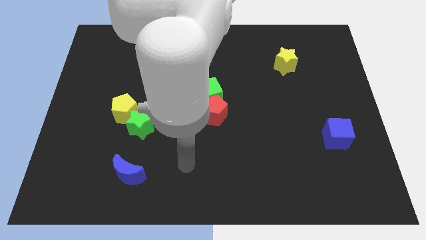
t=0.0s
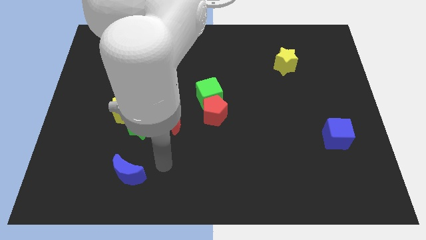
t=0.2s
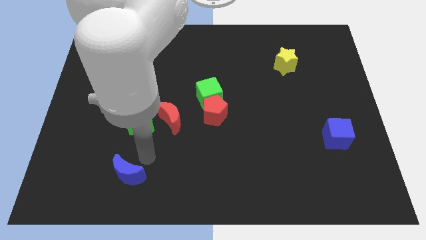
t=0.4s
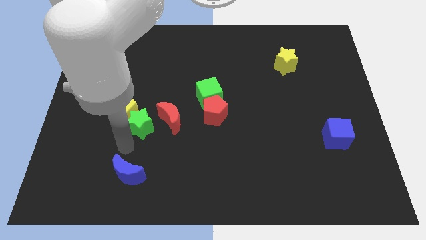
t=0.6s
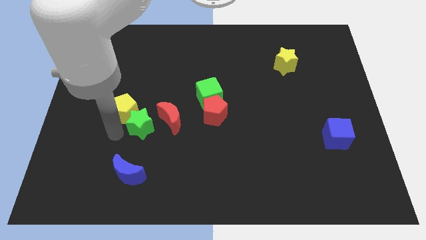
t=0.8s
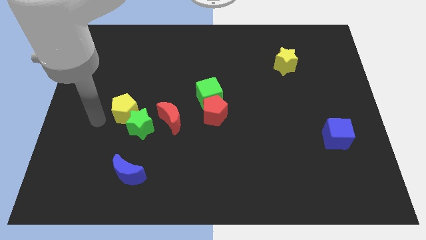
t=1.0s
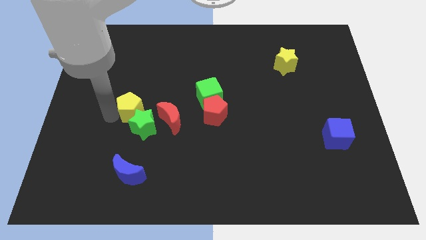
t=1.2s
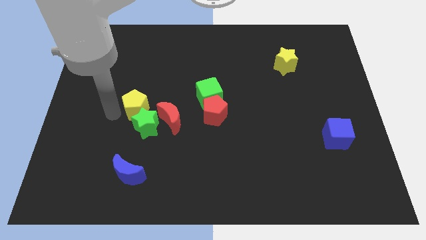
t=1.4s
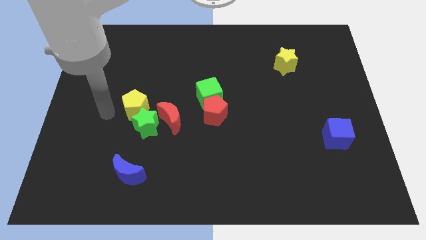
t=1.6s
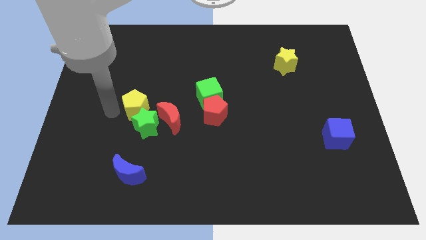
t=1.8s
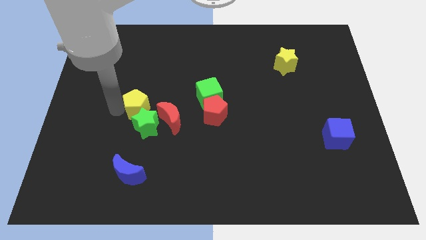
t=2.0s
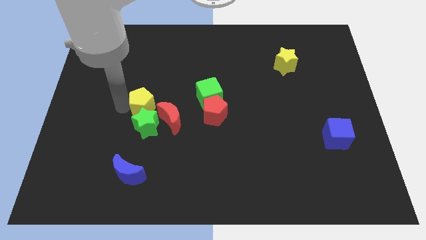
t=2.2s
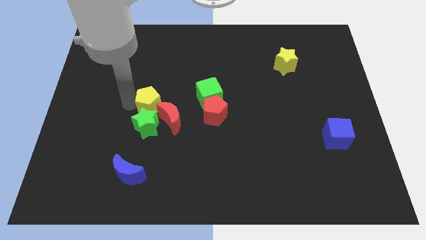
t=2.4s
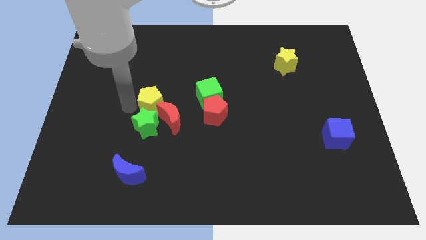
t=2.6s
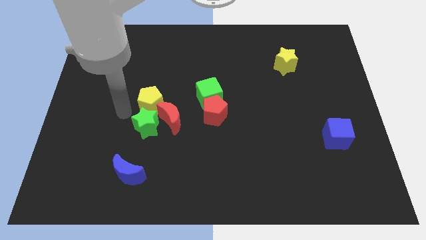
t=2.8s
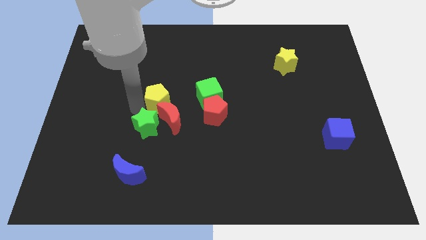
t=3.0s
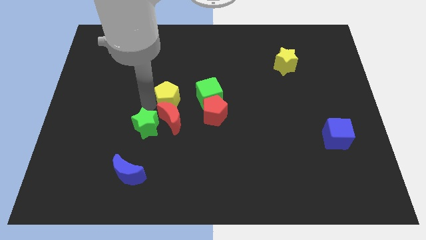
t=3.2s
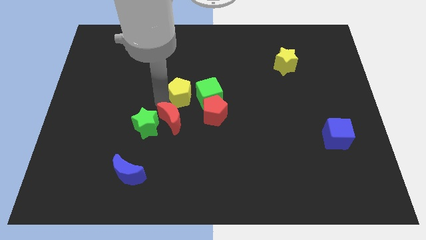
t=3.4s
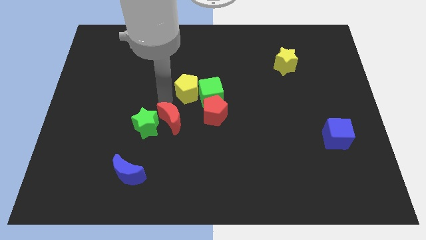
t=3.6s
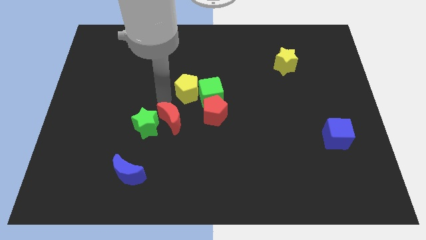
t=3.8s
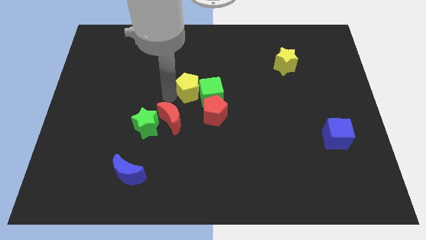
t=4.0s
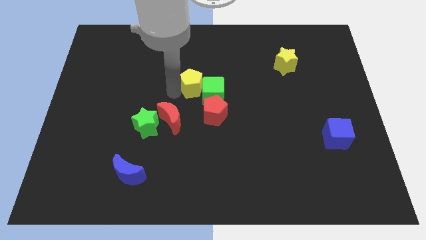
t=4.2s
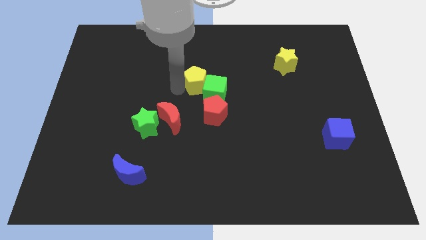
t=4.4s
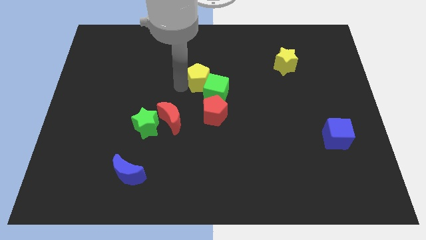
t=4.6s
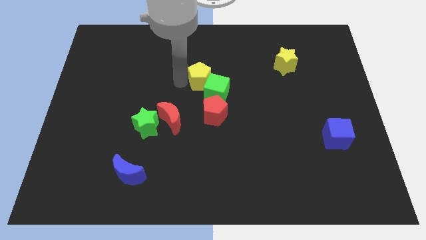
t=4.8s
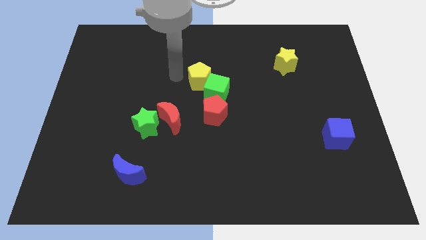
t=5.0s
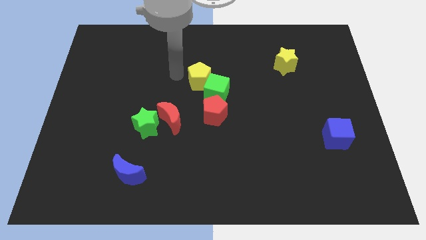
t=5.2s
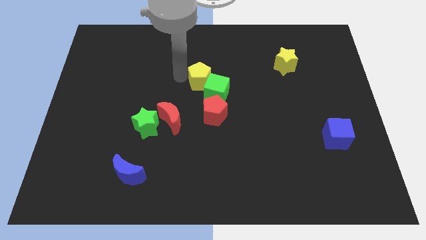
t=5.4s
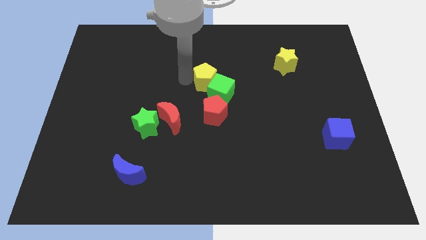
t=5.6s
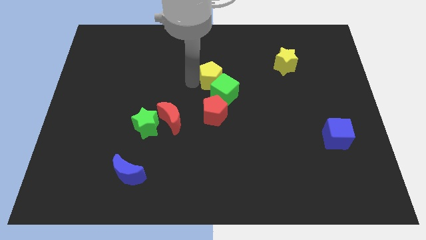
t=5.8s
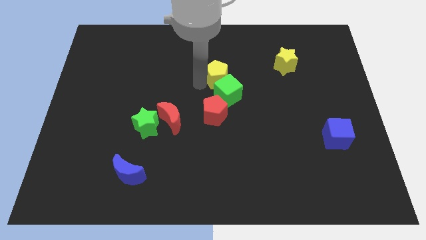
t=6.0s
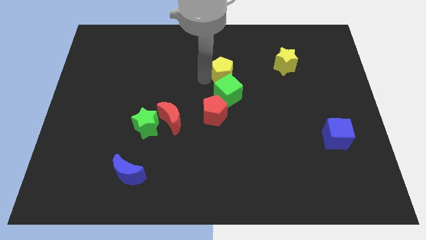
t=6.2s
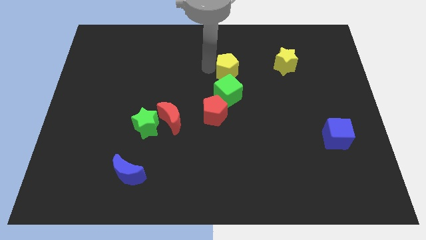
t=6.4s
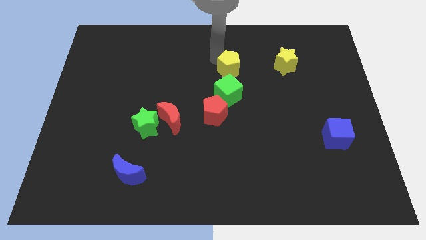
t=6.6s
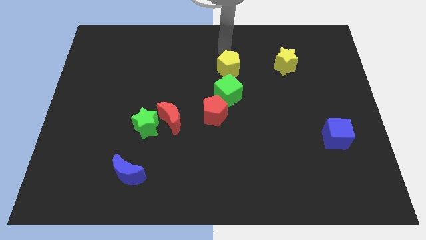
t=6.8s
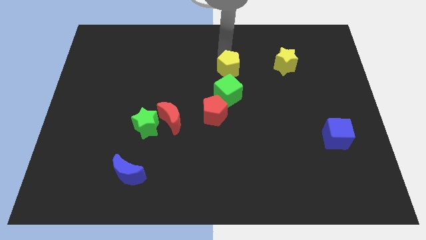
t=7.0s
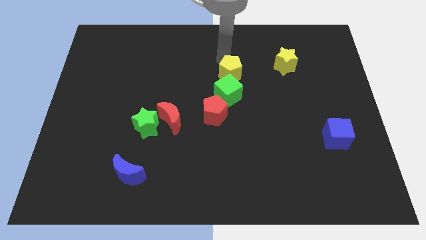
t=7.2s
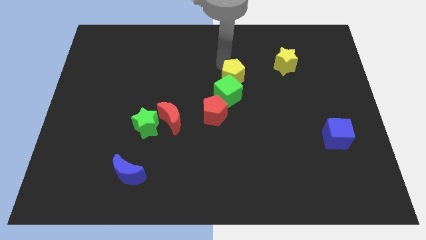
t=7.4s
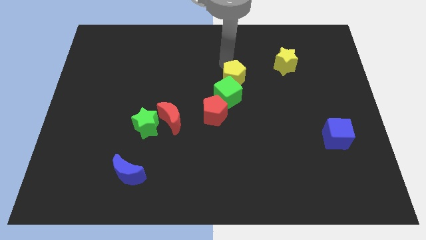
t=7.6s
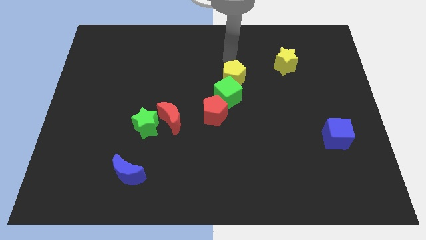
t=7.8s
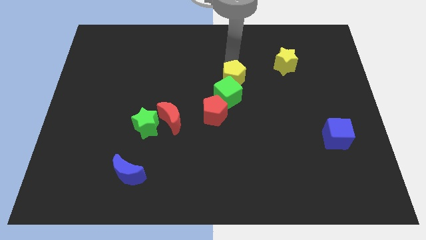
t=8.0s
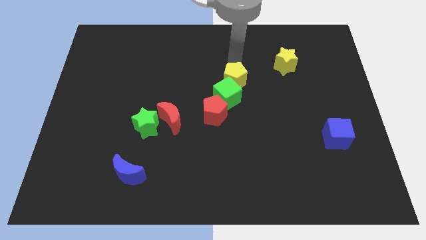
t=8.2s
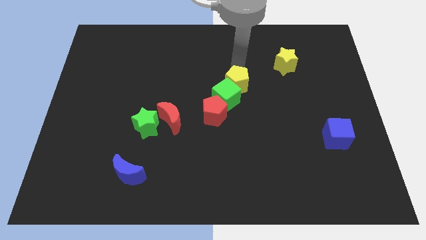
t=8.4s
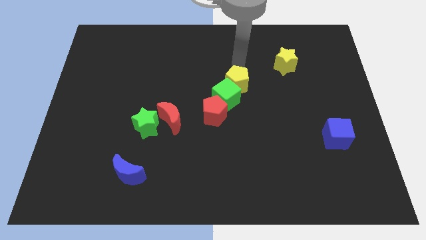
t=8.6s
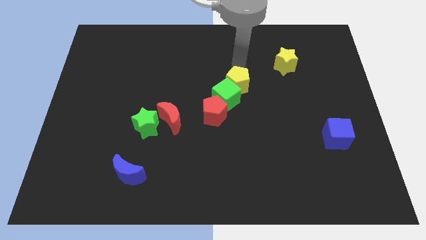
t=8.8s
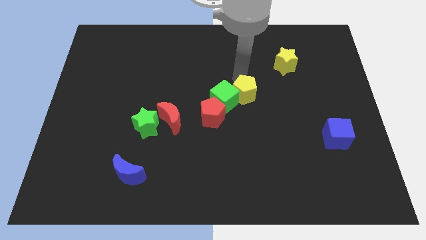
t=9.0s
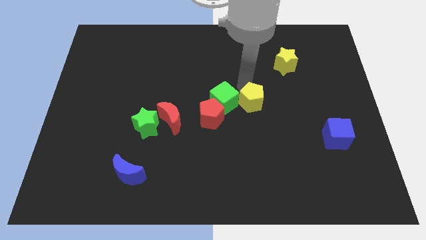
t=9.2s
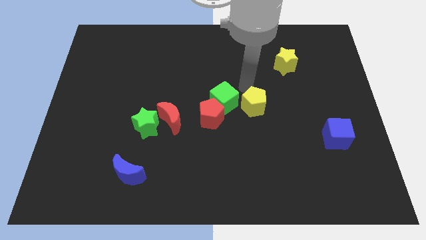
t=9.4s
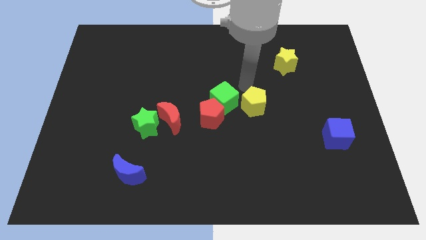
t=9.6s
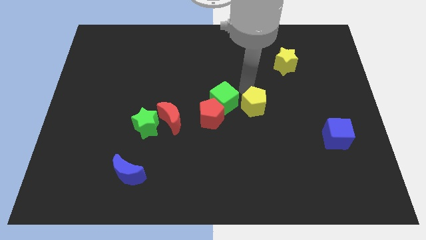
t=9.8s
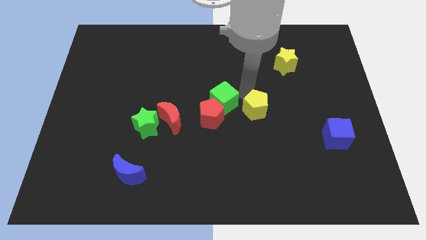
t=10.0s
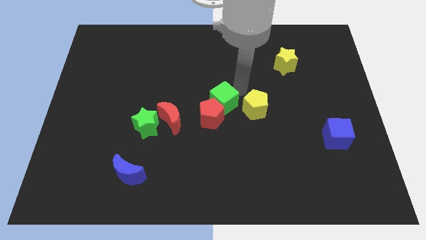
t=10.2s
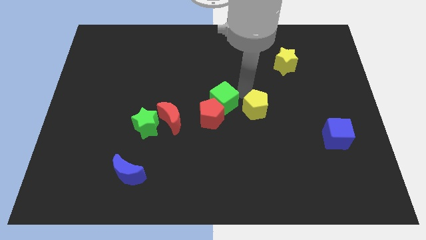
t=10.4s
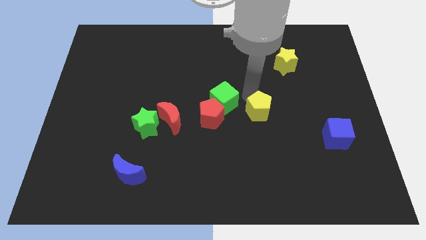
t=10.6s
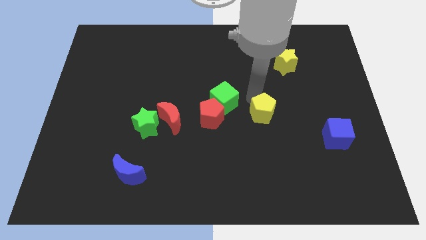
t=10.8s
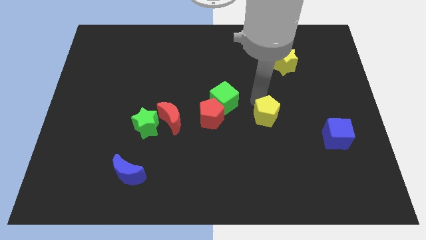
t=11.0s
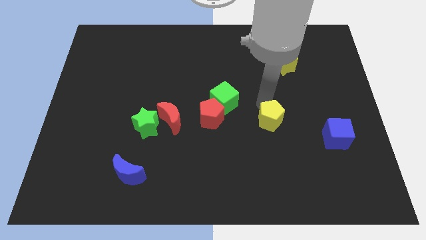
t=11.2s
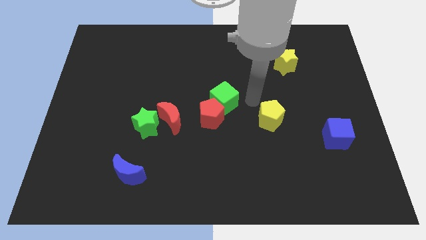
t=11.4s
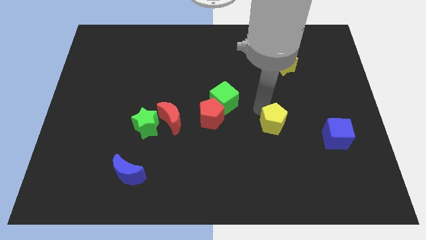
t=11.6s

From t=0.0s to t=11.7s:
move the yellow pentagon to the left of the blue cube

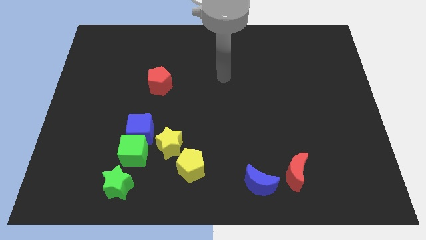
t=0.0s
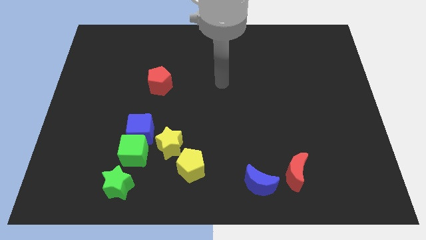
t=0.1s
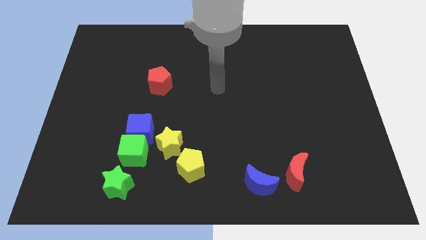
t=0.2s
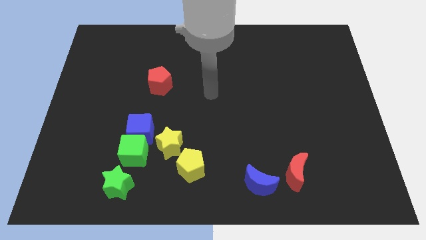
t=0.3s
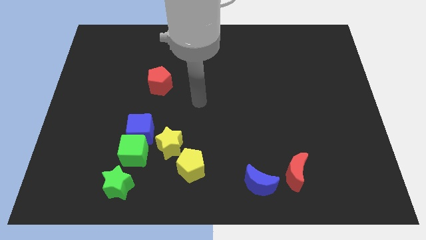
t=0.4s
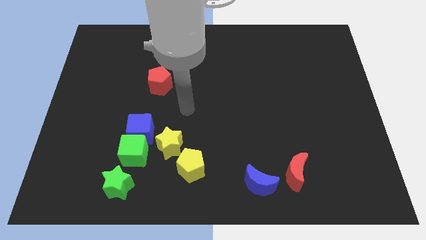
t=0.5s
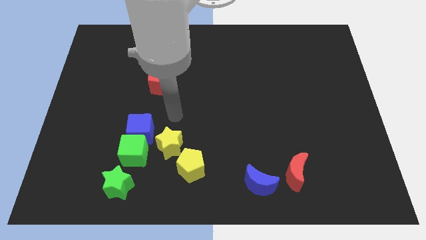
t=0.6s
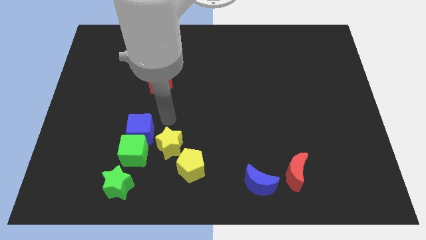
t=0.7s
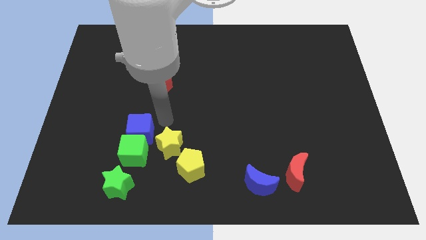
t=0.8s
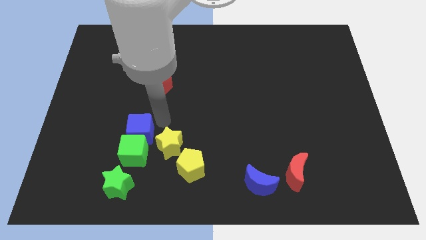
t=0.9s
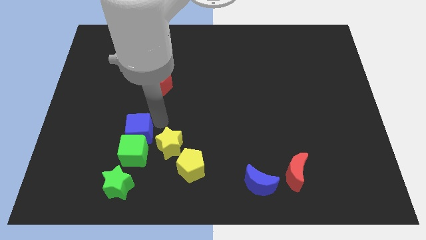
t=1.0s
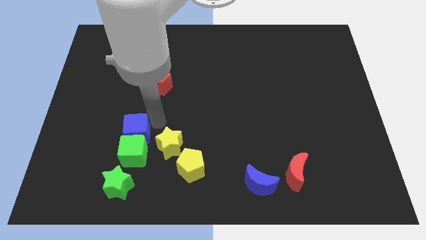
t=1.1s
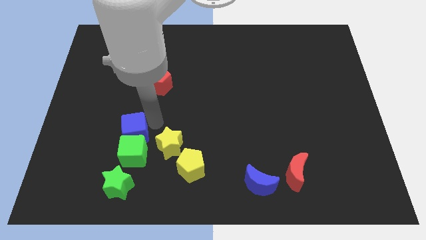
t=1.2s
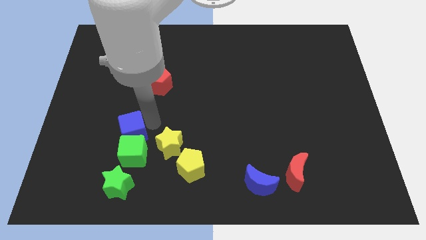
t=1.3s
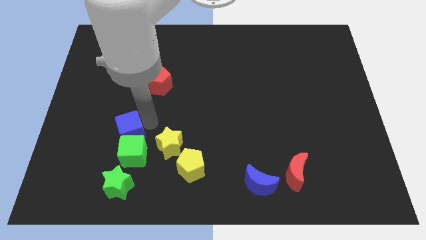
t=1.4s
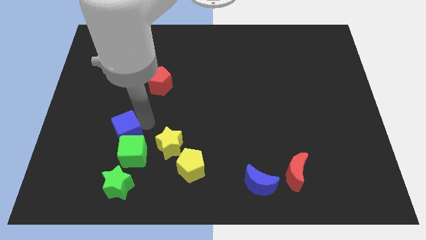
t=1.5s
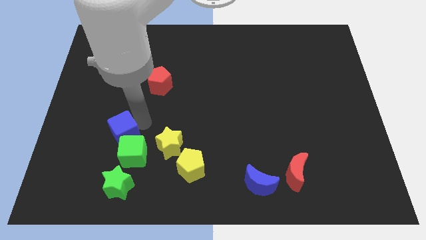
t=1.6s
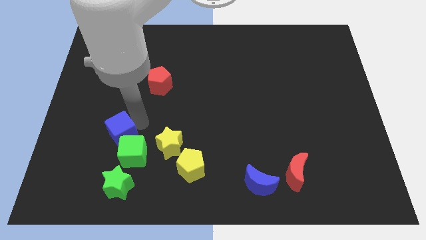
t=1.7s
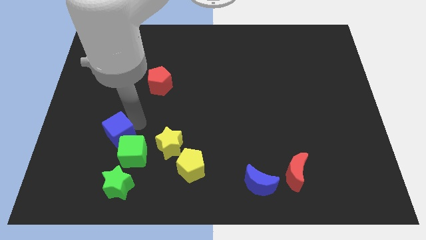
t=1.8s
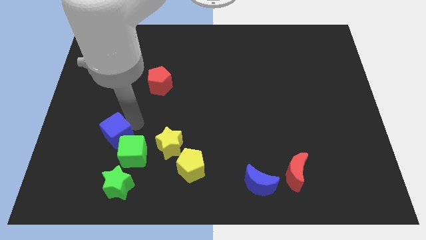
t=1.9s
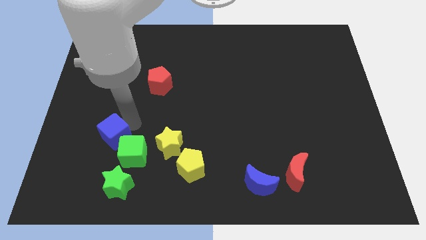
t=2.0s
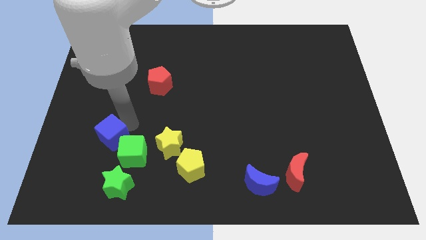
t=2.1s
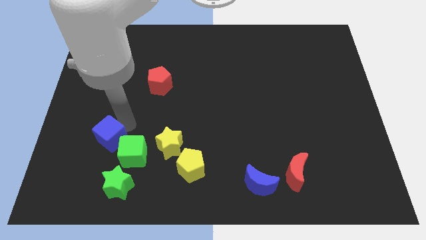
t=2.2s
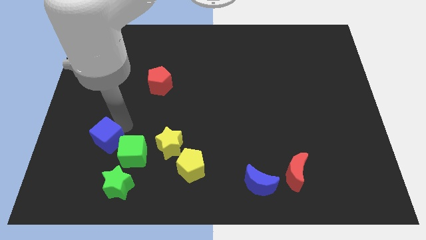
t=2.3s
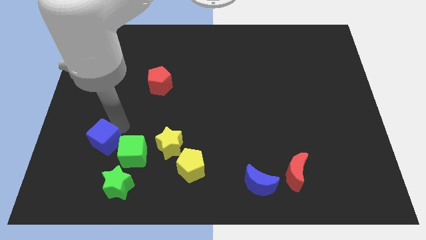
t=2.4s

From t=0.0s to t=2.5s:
move the blue cube to the top left side of the green star
